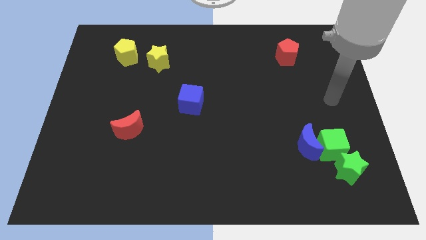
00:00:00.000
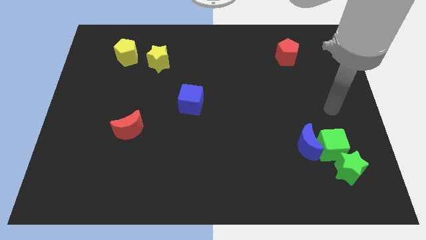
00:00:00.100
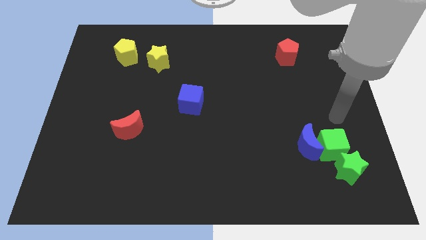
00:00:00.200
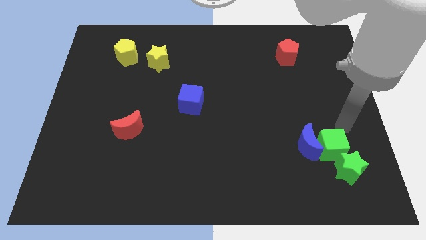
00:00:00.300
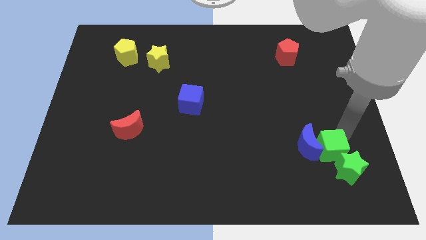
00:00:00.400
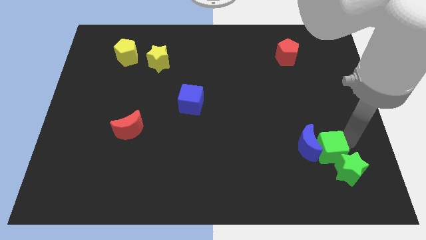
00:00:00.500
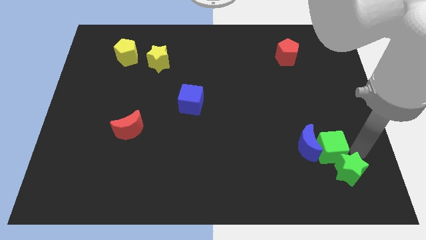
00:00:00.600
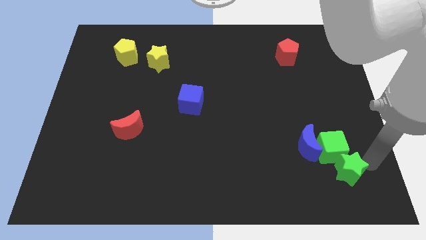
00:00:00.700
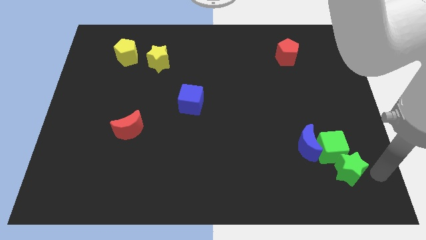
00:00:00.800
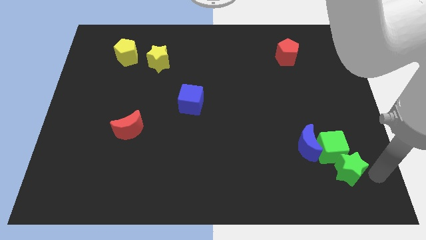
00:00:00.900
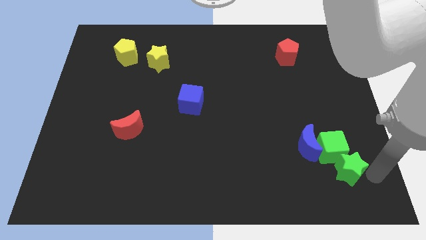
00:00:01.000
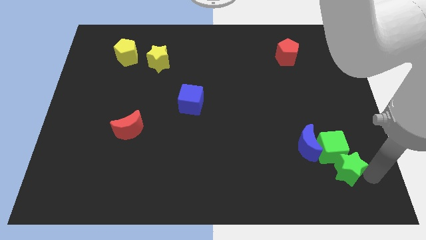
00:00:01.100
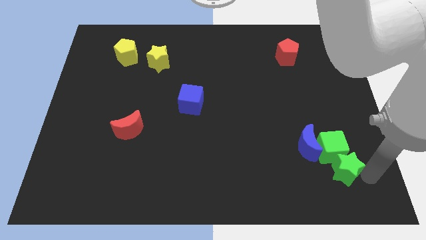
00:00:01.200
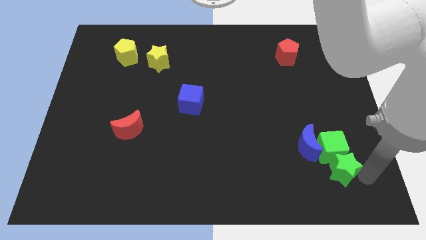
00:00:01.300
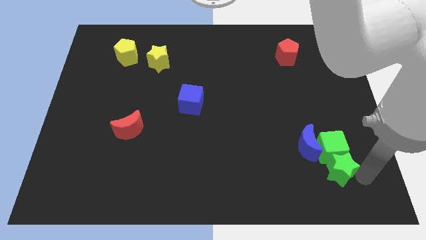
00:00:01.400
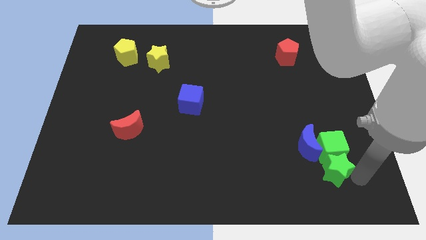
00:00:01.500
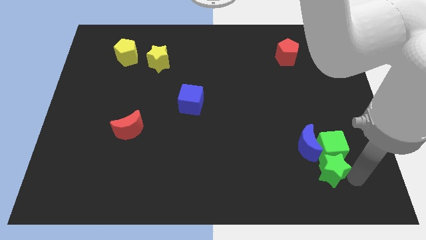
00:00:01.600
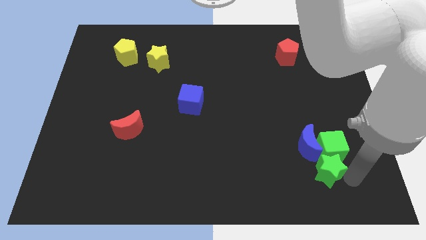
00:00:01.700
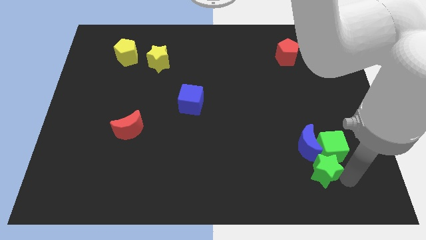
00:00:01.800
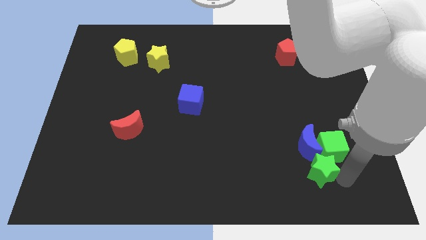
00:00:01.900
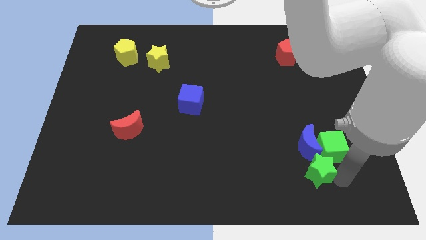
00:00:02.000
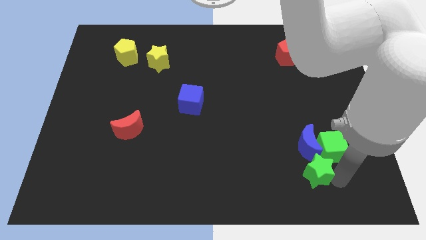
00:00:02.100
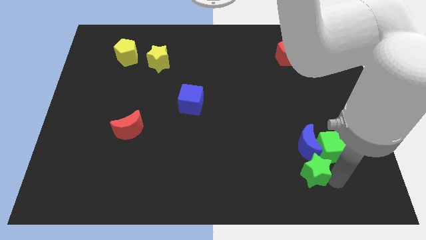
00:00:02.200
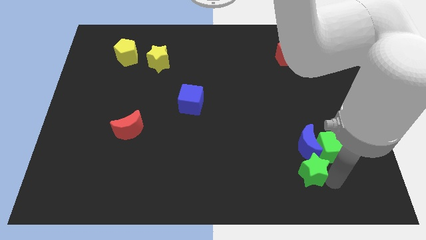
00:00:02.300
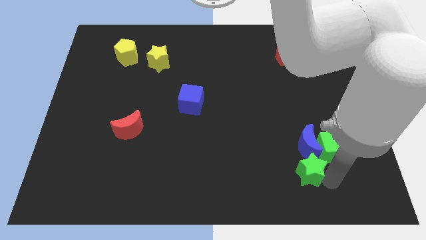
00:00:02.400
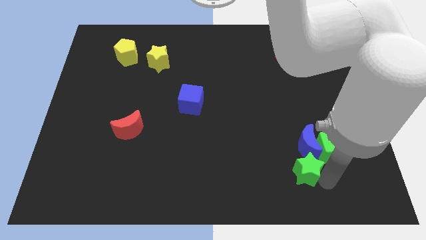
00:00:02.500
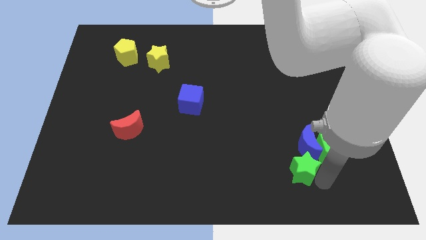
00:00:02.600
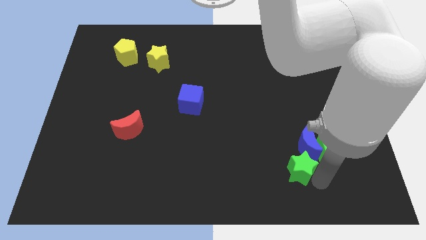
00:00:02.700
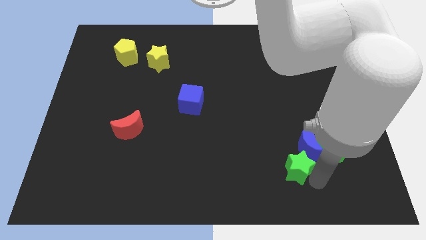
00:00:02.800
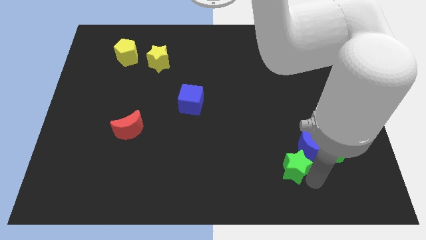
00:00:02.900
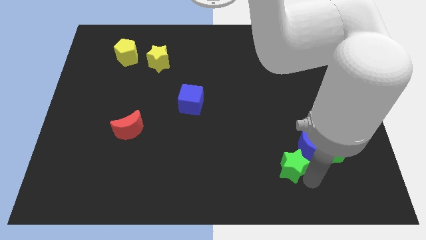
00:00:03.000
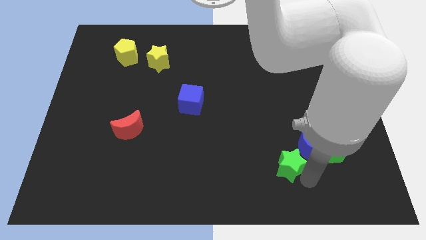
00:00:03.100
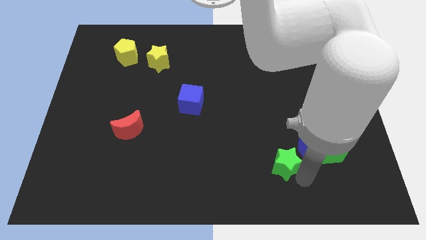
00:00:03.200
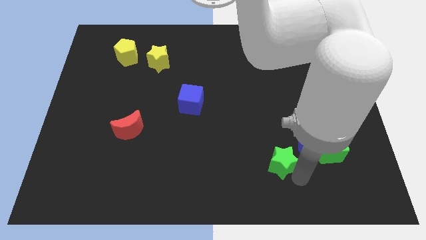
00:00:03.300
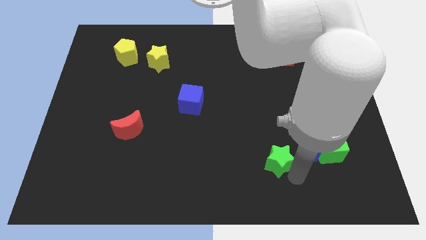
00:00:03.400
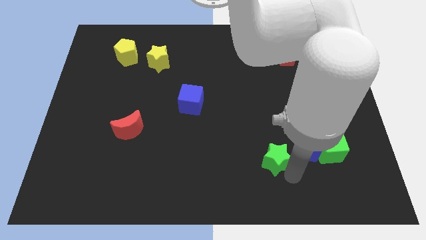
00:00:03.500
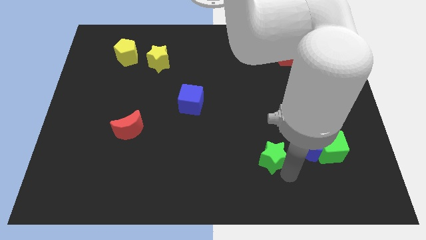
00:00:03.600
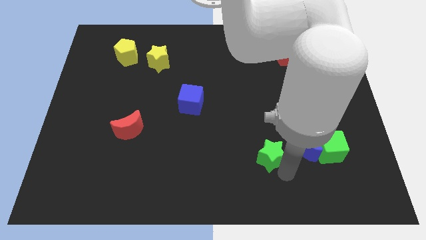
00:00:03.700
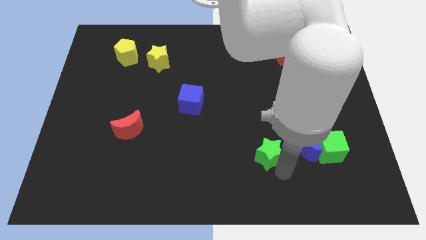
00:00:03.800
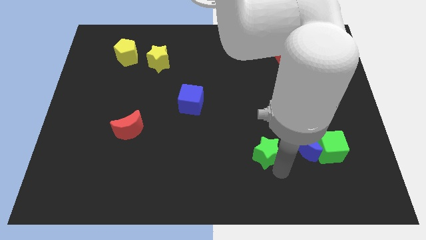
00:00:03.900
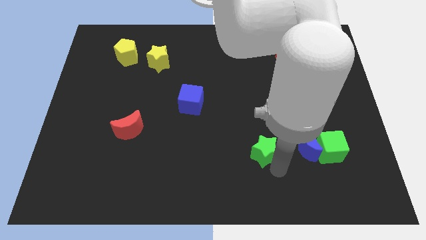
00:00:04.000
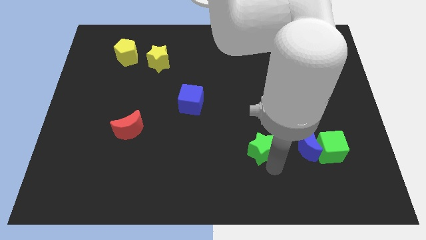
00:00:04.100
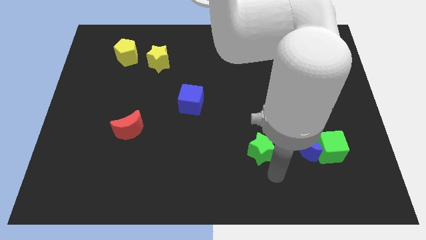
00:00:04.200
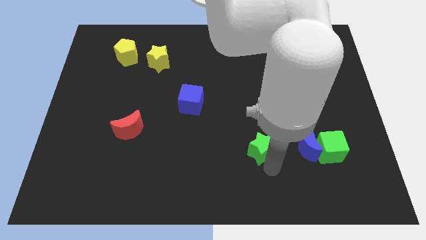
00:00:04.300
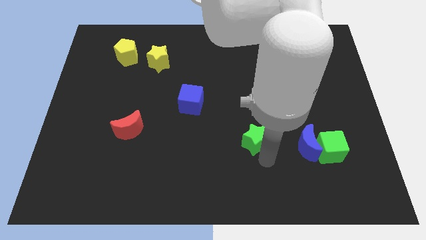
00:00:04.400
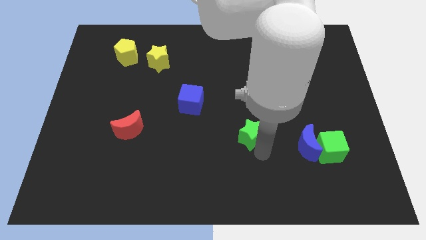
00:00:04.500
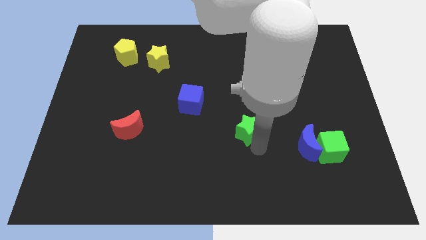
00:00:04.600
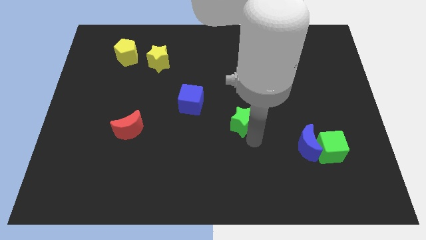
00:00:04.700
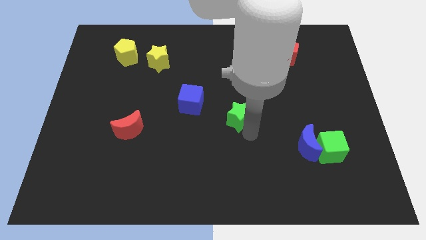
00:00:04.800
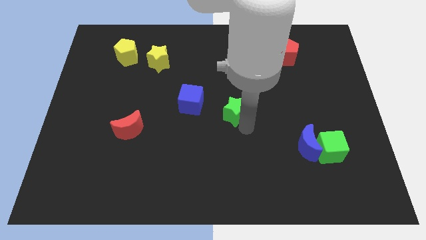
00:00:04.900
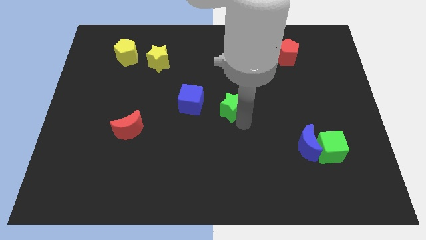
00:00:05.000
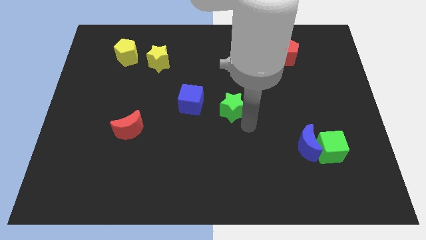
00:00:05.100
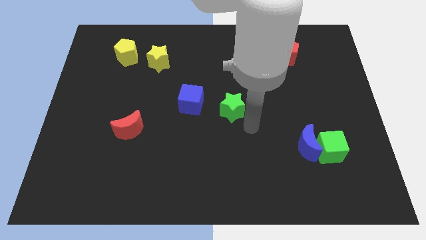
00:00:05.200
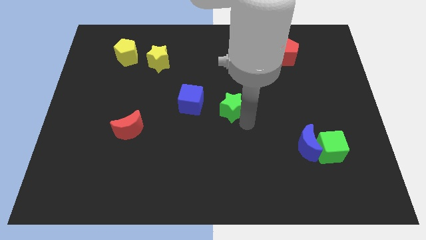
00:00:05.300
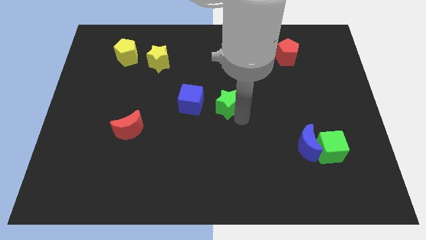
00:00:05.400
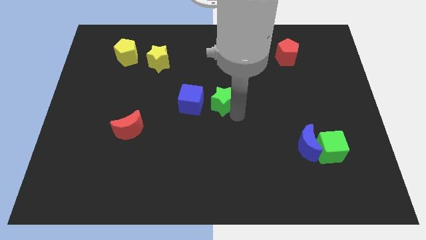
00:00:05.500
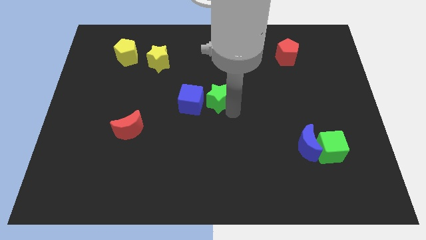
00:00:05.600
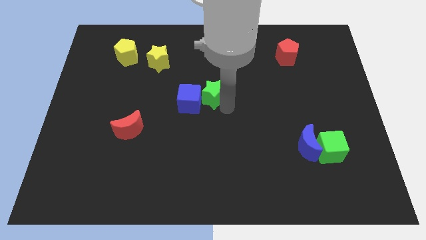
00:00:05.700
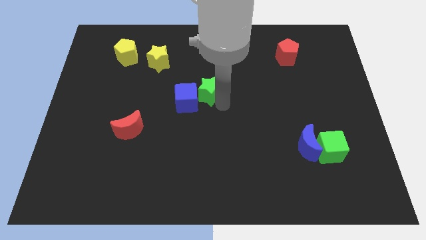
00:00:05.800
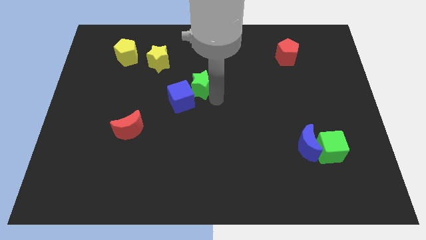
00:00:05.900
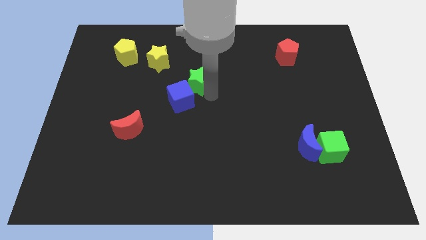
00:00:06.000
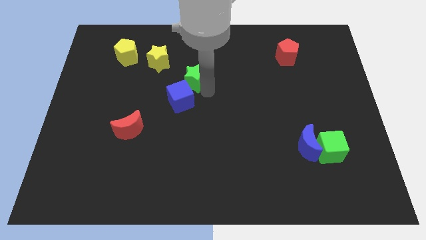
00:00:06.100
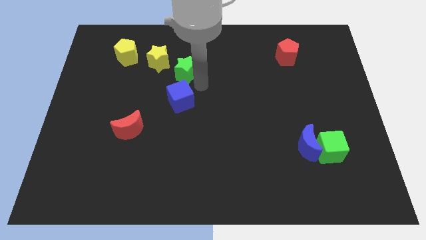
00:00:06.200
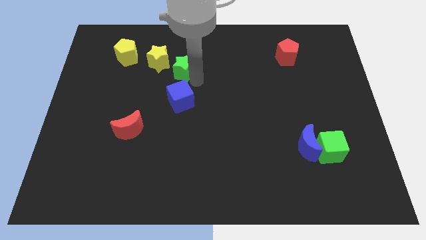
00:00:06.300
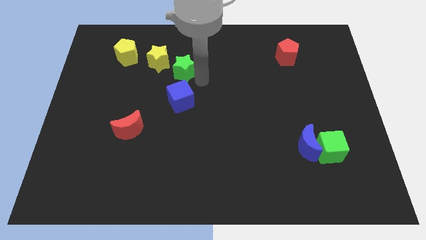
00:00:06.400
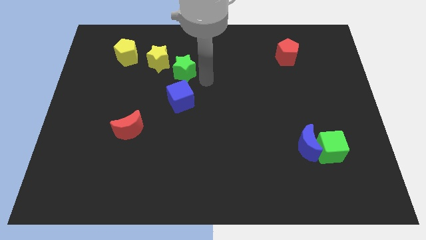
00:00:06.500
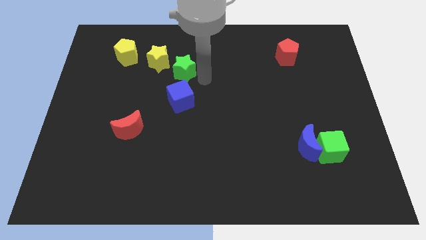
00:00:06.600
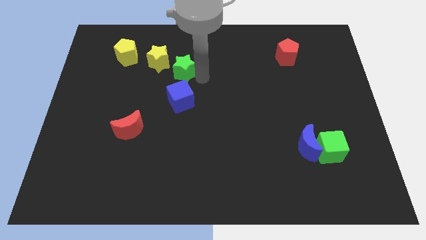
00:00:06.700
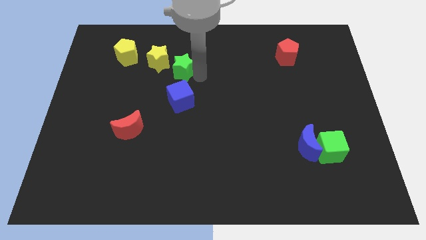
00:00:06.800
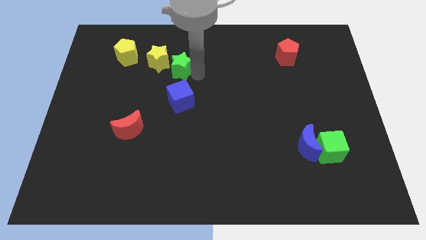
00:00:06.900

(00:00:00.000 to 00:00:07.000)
move the green star towards the yellow star
